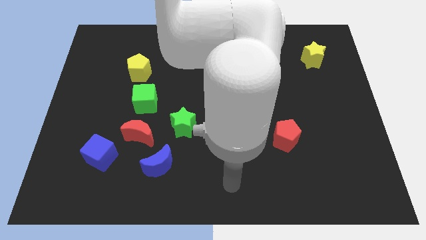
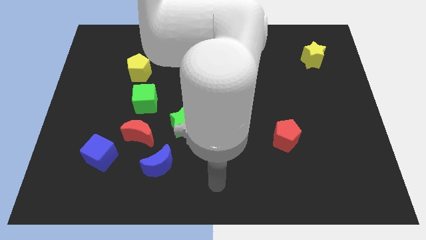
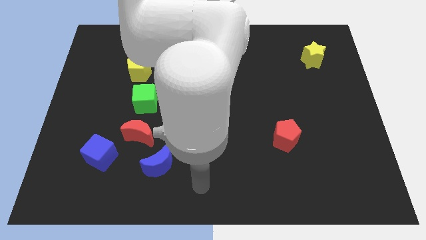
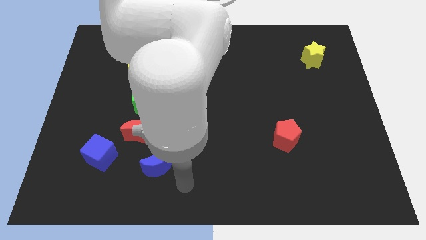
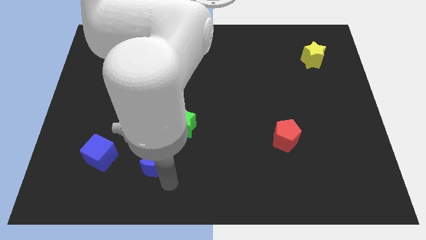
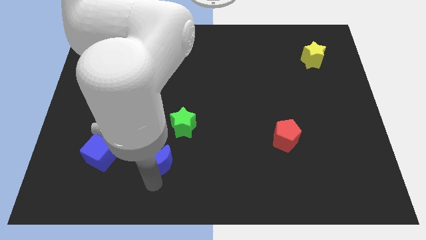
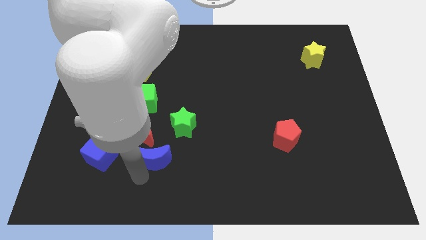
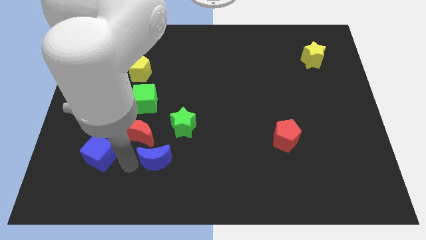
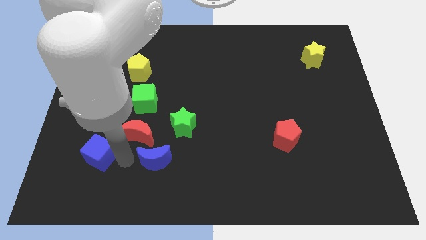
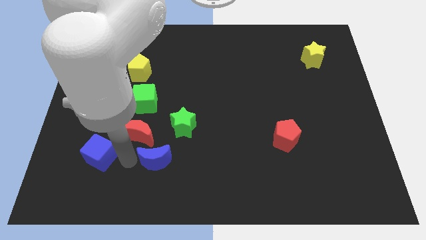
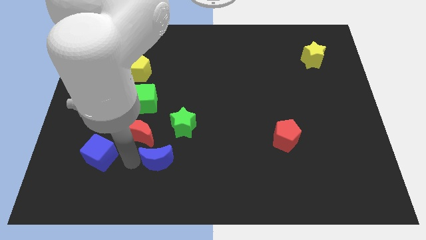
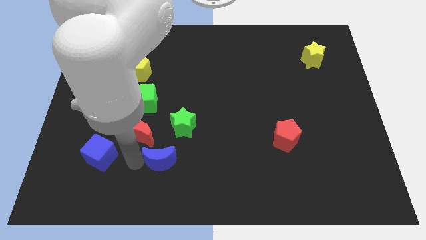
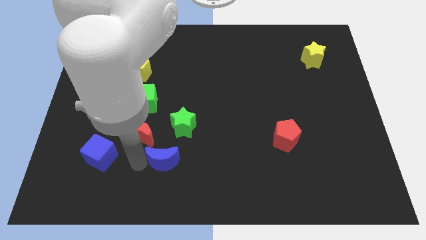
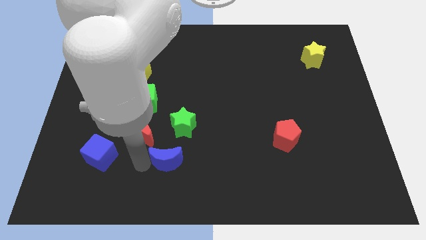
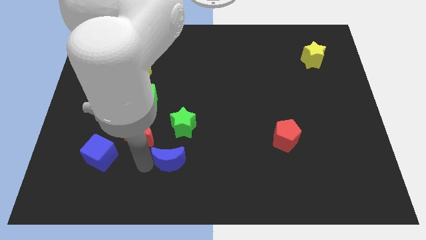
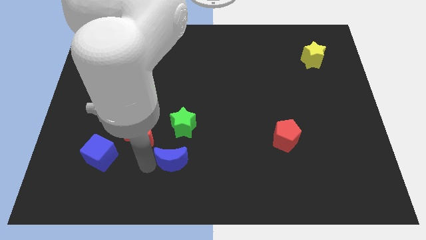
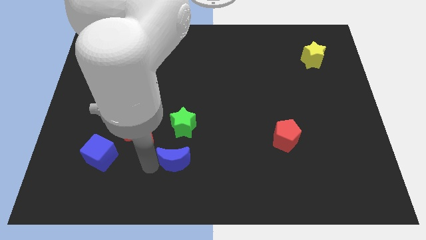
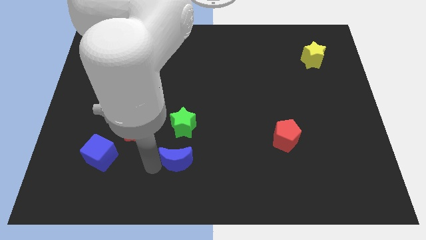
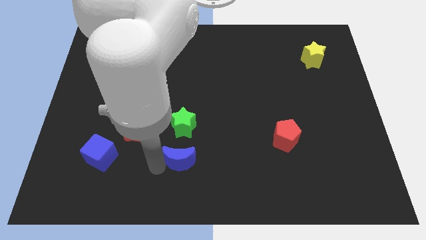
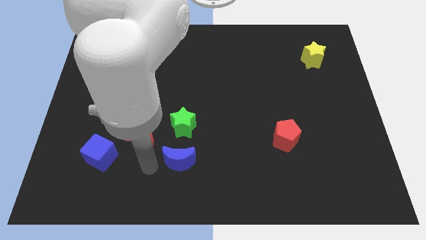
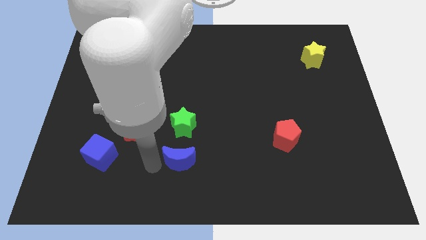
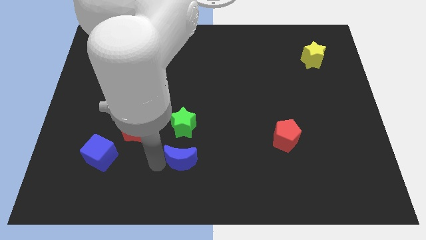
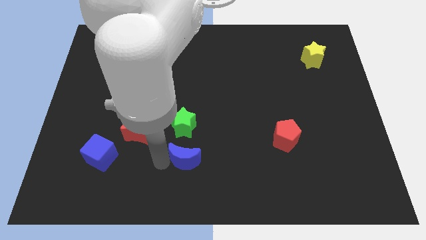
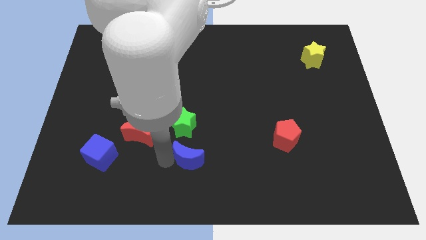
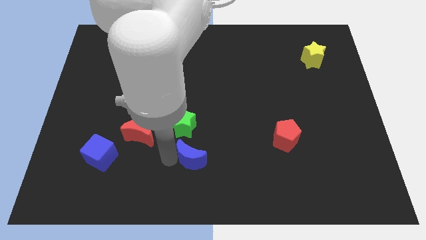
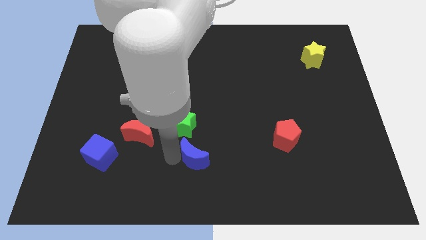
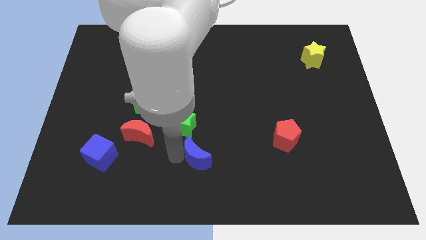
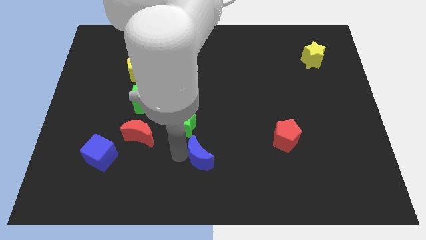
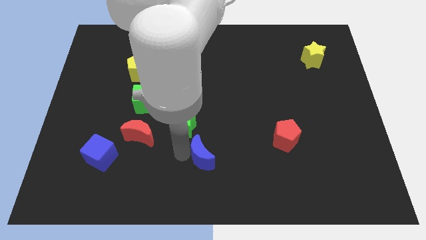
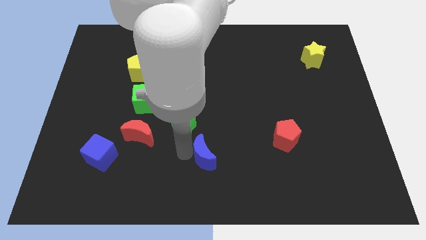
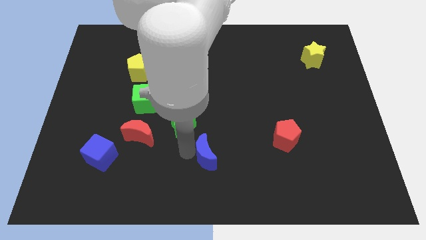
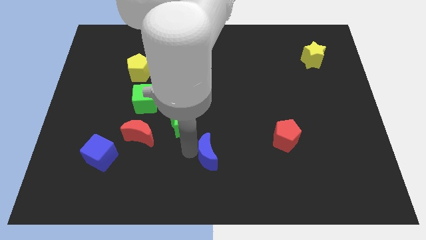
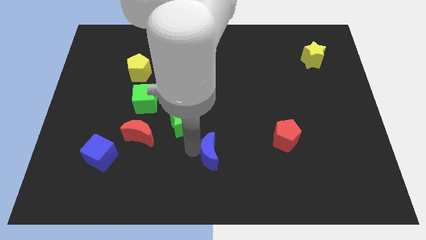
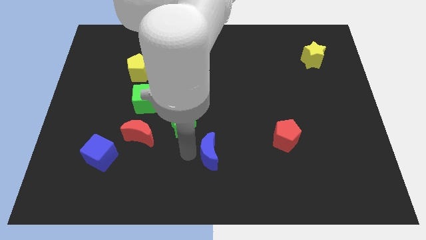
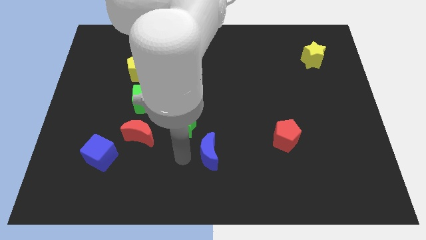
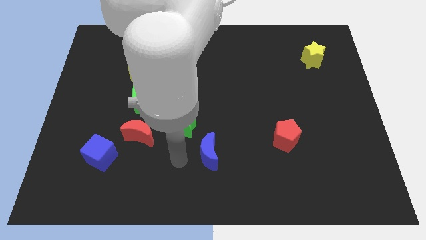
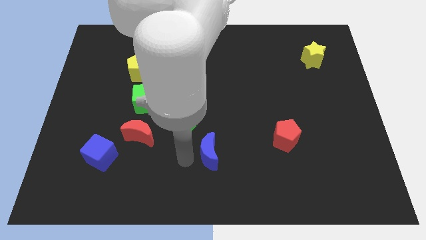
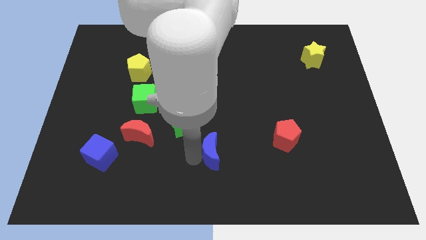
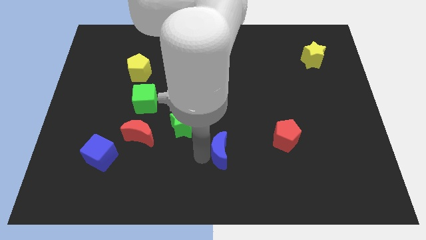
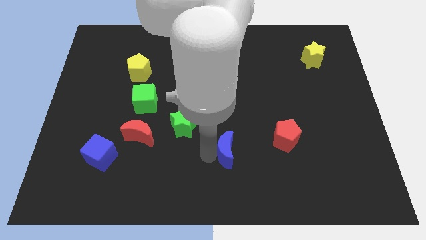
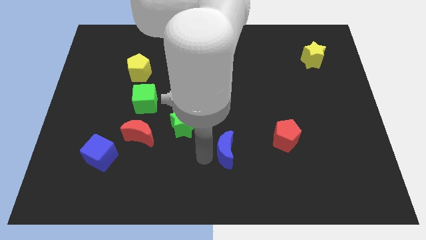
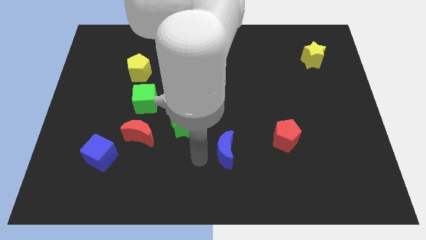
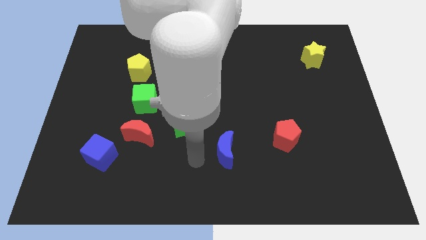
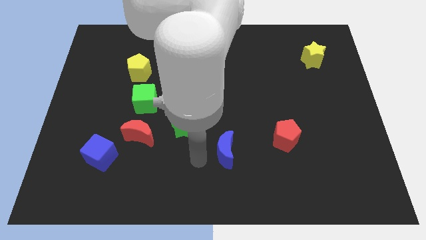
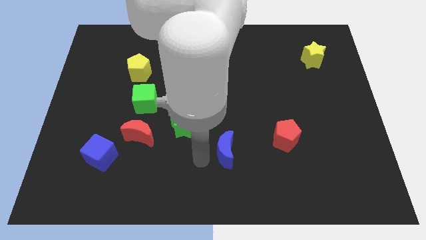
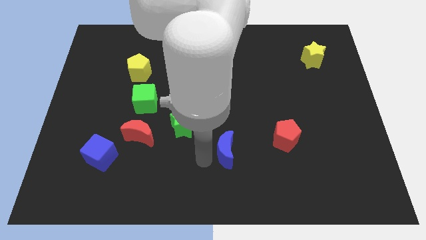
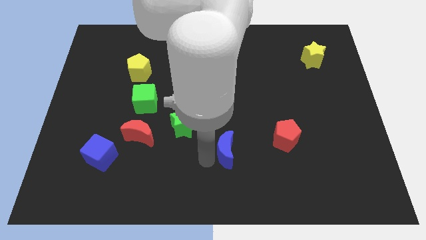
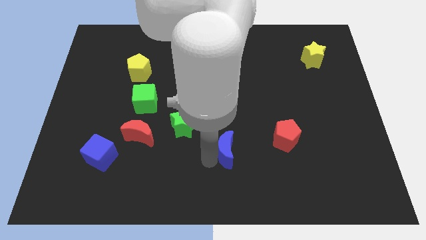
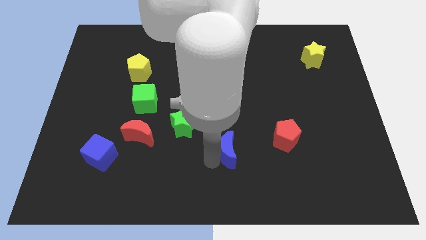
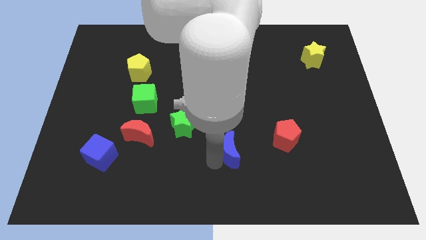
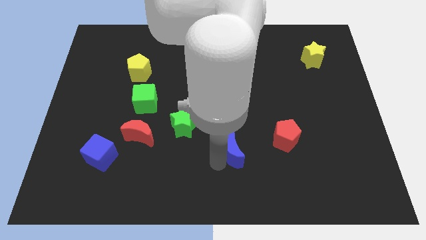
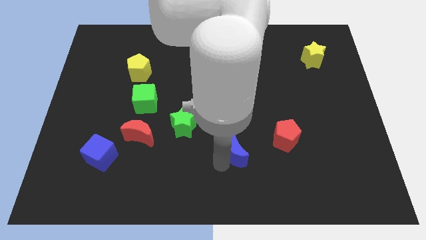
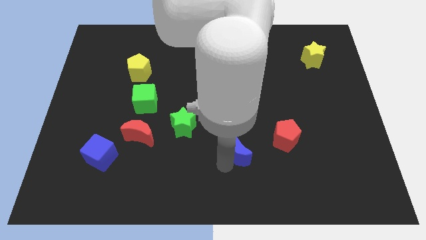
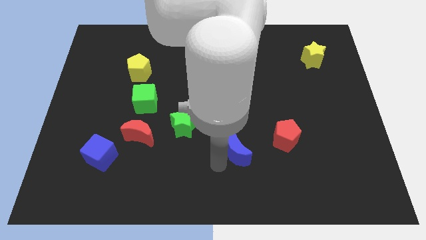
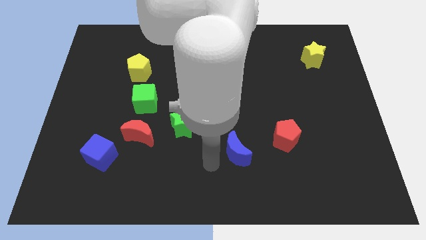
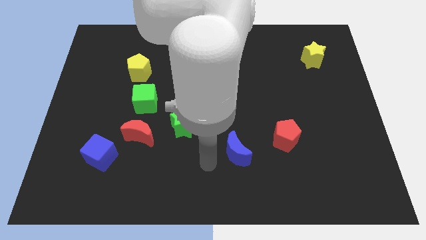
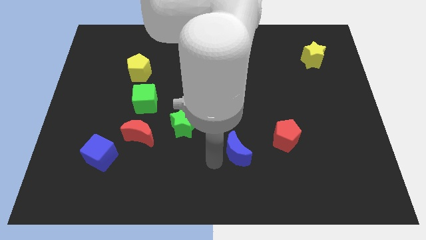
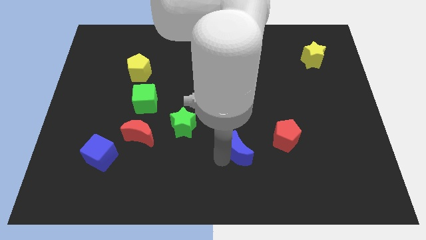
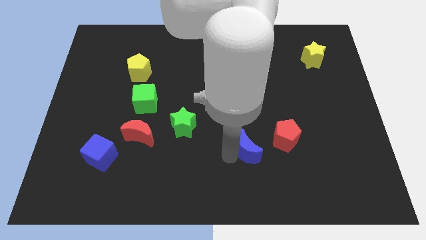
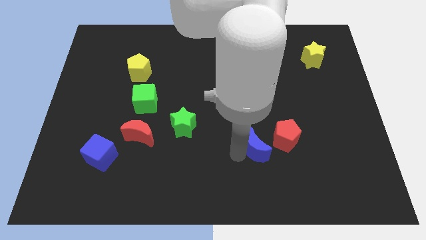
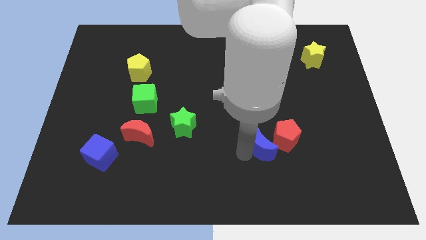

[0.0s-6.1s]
slide the blue moon close to the red pentagon

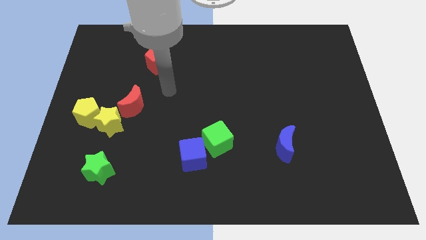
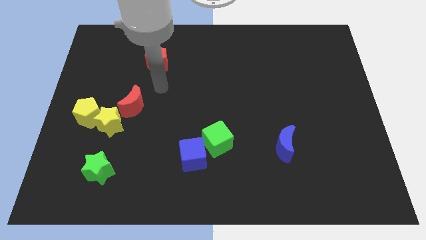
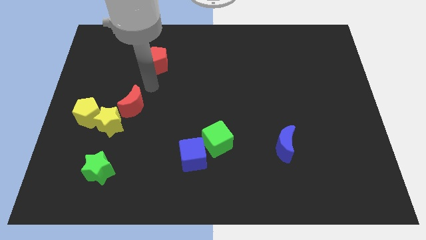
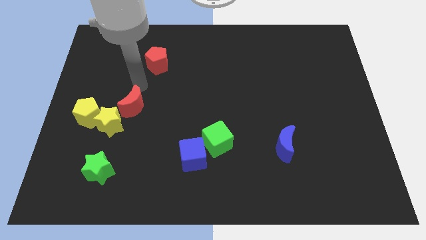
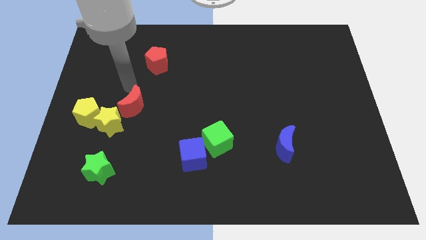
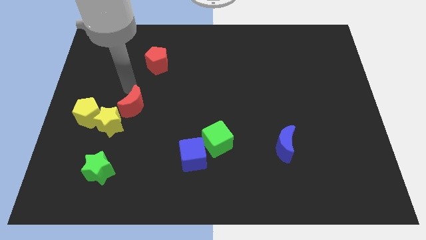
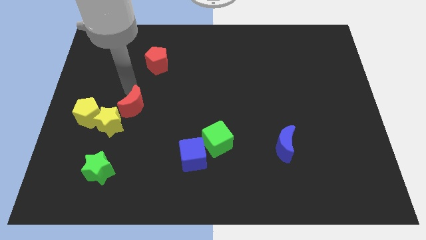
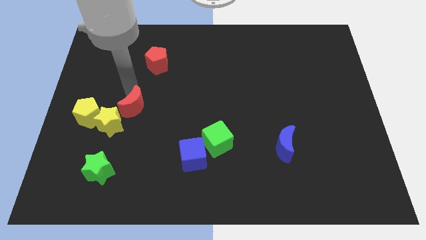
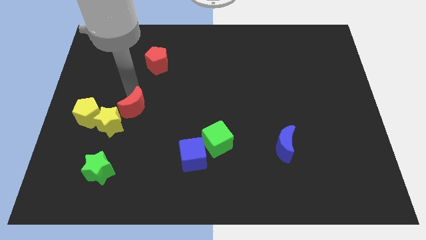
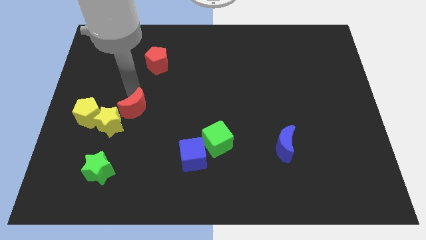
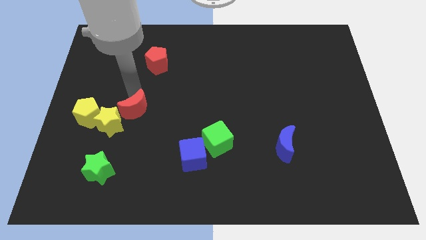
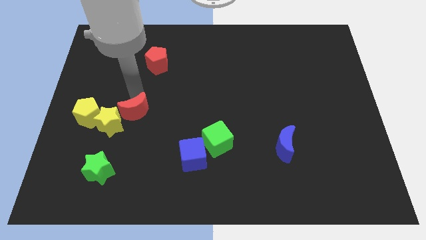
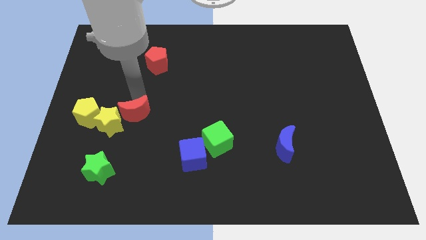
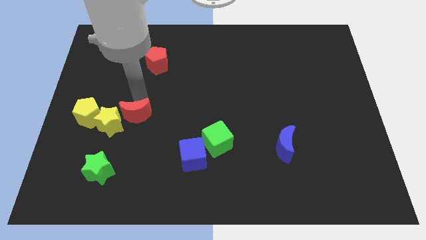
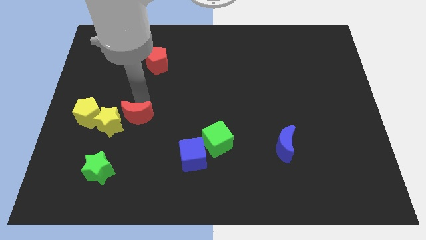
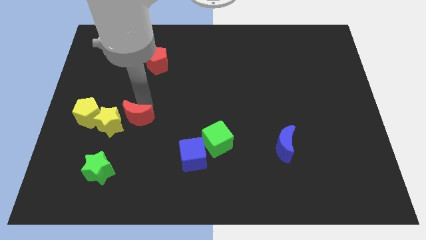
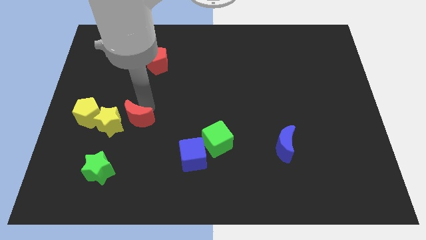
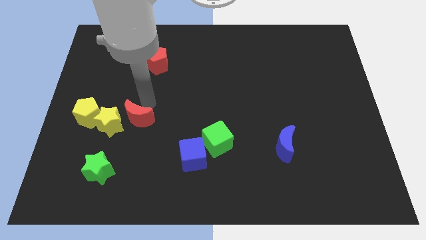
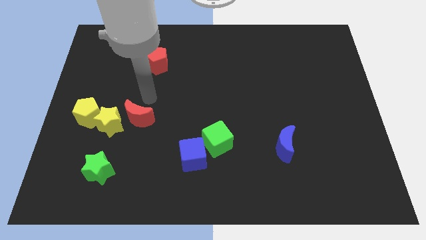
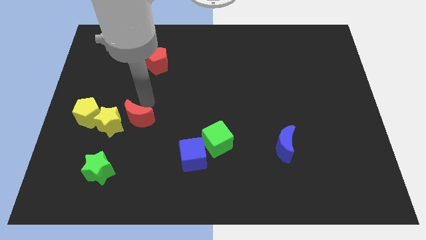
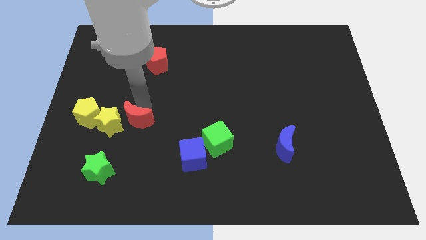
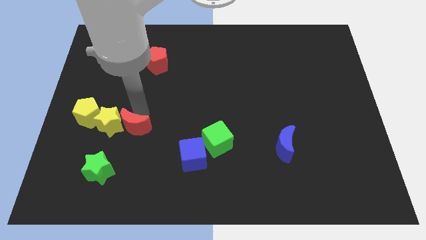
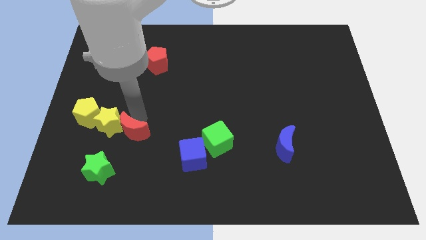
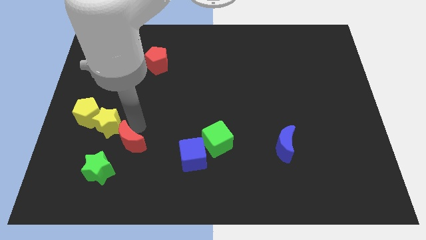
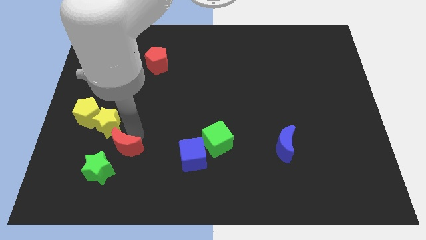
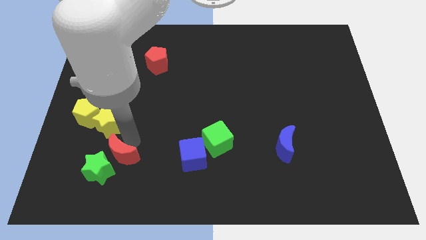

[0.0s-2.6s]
slide the red moon next to the green star
